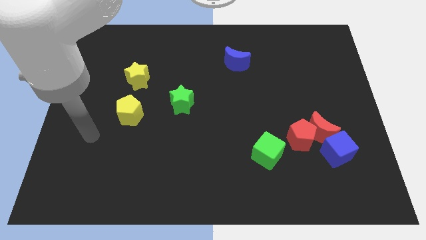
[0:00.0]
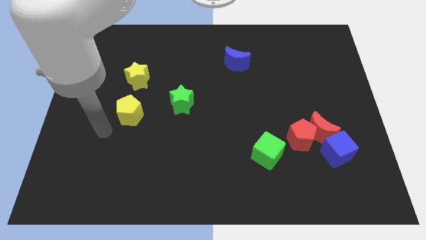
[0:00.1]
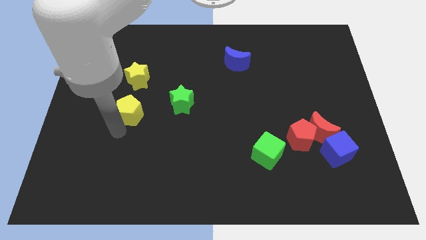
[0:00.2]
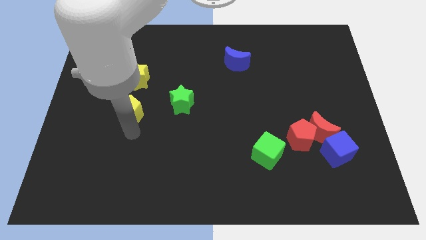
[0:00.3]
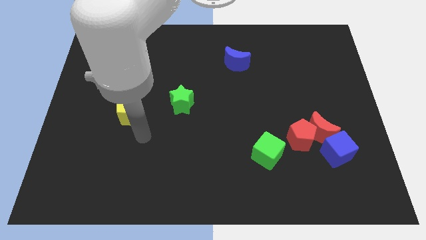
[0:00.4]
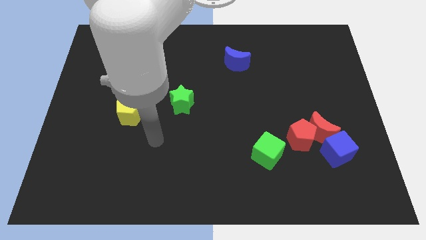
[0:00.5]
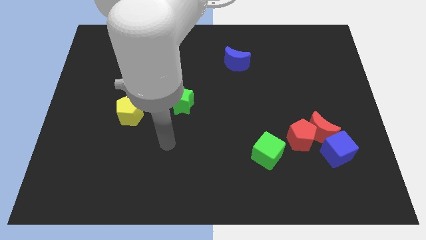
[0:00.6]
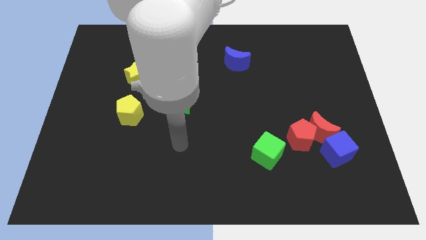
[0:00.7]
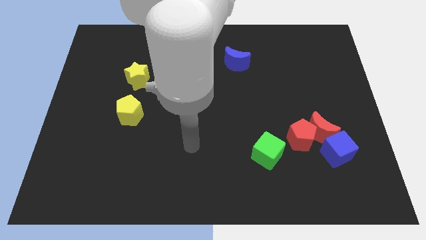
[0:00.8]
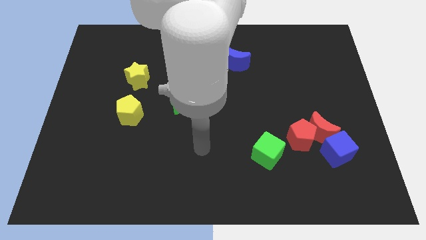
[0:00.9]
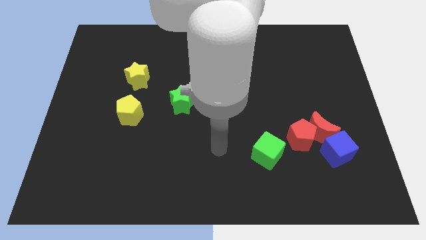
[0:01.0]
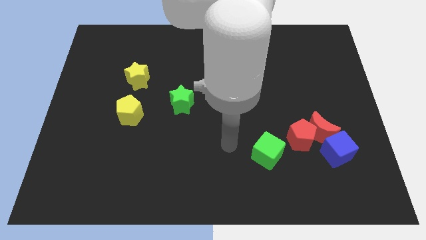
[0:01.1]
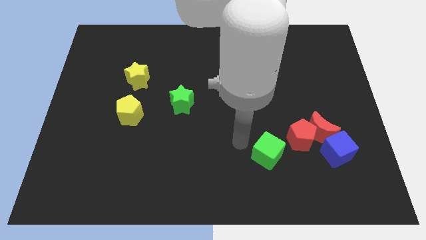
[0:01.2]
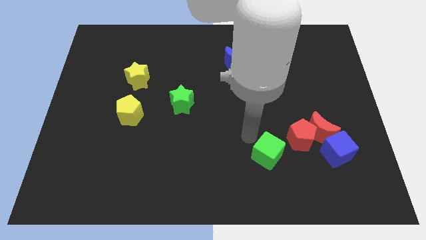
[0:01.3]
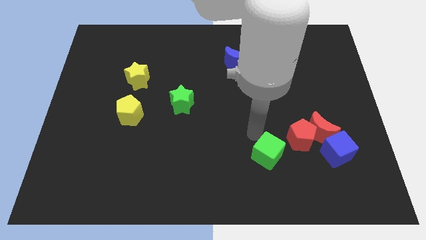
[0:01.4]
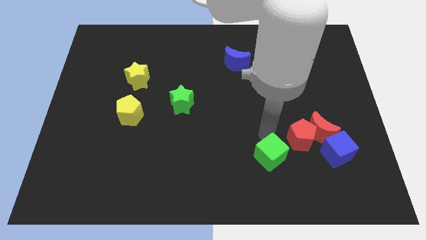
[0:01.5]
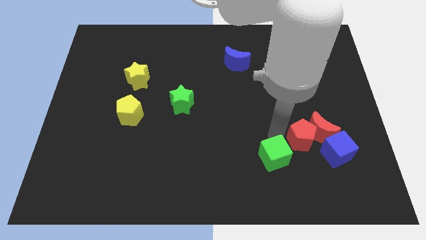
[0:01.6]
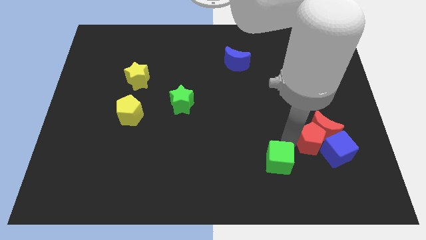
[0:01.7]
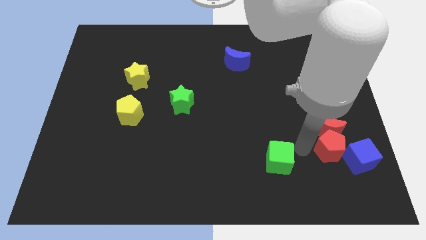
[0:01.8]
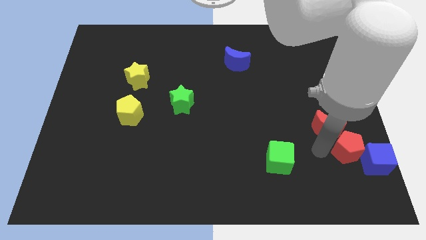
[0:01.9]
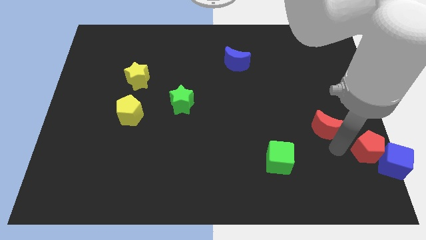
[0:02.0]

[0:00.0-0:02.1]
move the red moon away from the red pentagon and blue cube

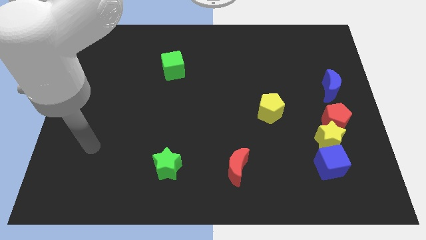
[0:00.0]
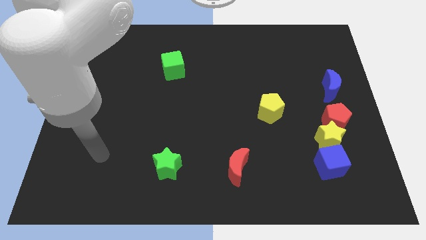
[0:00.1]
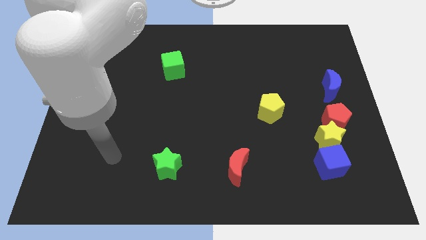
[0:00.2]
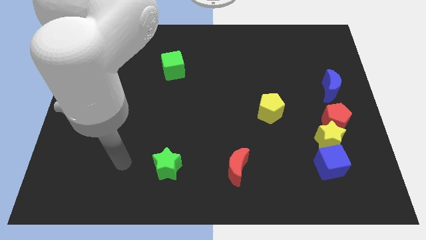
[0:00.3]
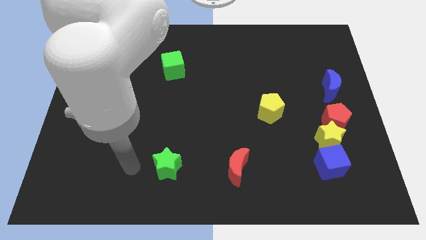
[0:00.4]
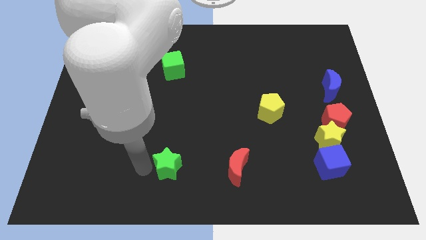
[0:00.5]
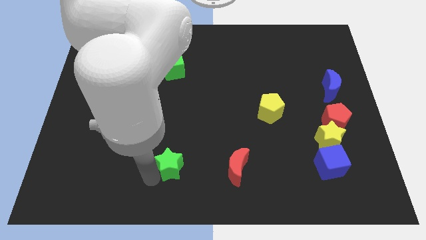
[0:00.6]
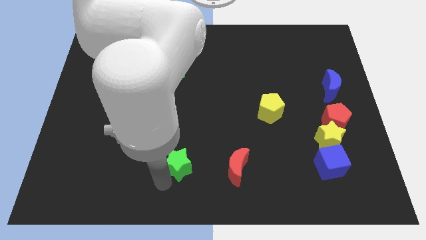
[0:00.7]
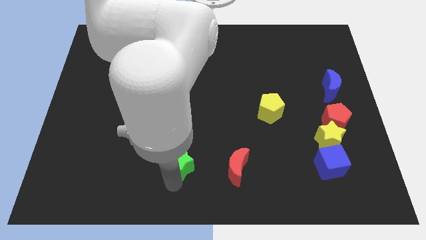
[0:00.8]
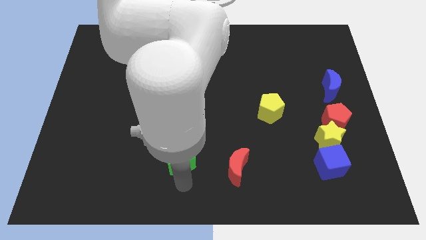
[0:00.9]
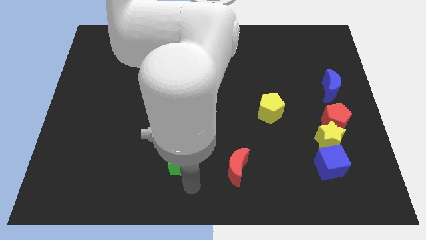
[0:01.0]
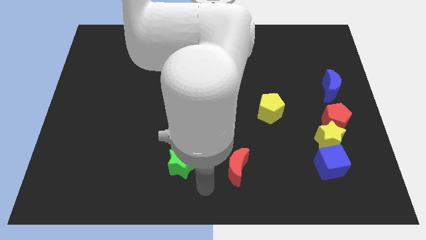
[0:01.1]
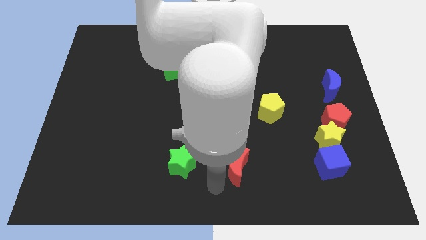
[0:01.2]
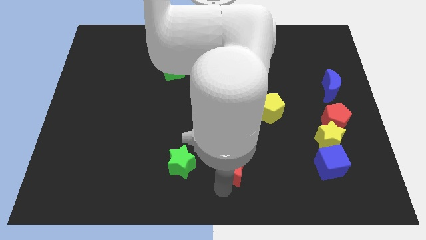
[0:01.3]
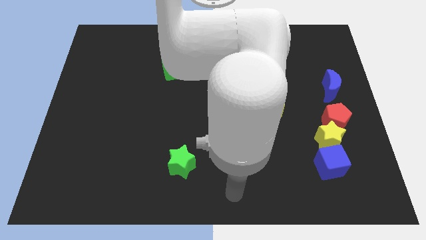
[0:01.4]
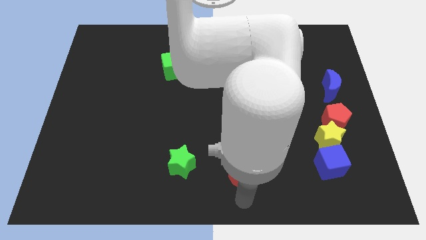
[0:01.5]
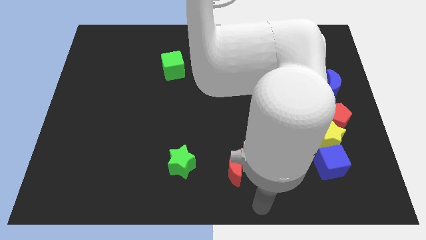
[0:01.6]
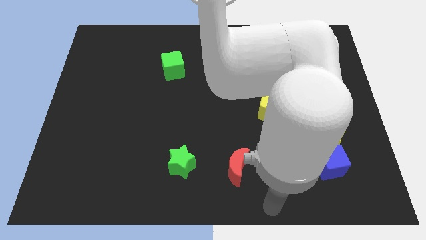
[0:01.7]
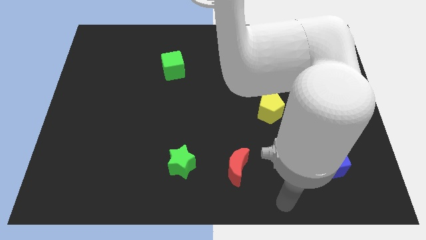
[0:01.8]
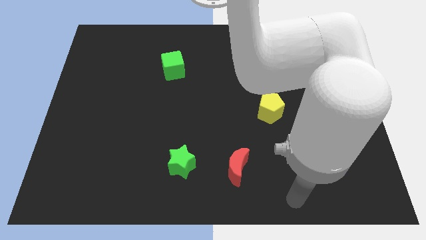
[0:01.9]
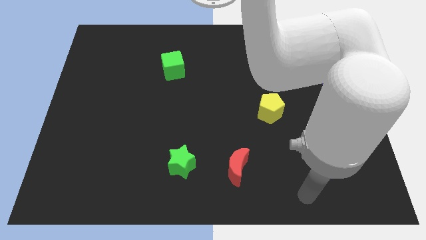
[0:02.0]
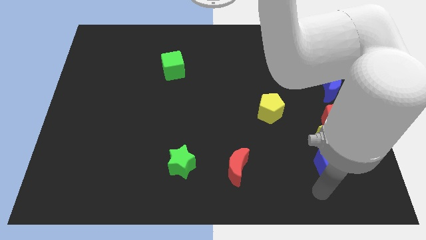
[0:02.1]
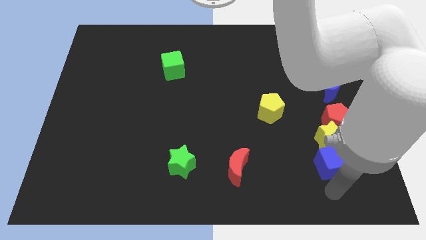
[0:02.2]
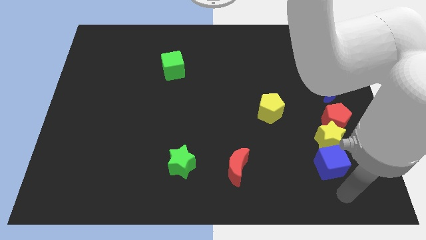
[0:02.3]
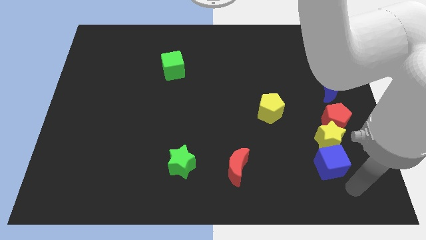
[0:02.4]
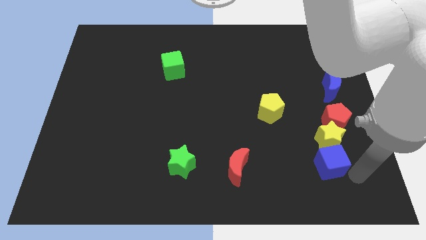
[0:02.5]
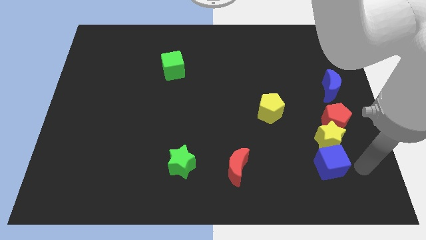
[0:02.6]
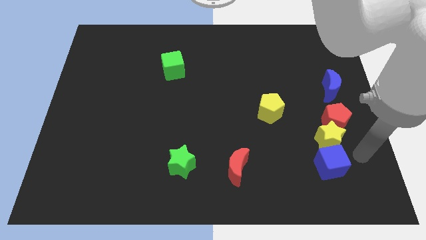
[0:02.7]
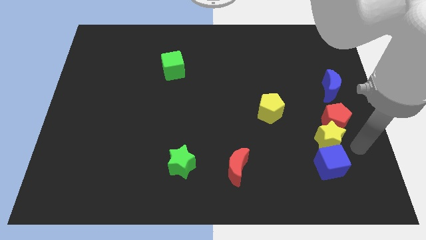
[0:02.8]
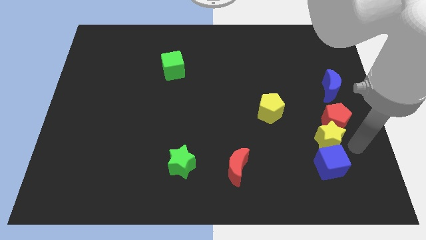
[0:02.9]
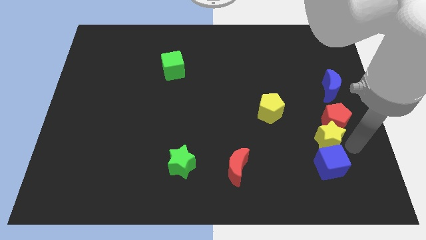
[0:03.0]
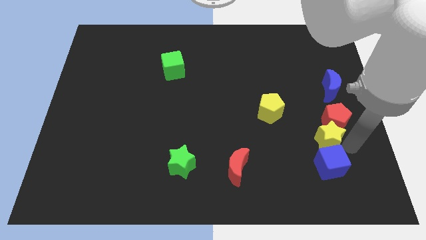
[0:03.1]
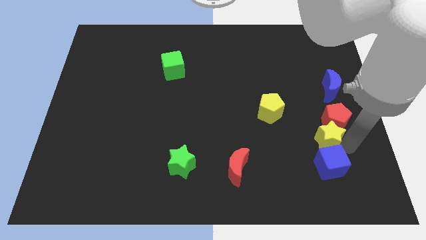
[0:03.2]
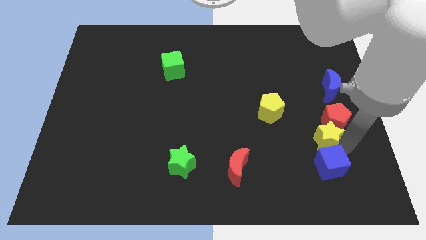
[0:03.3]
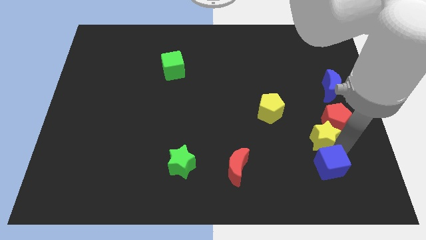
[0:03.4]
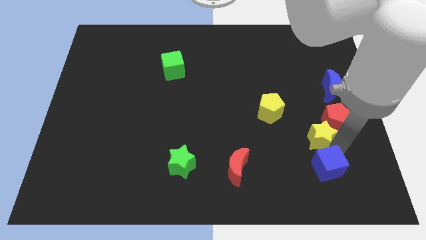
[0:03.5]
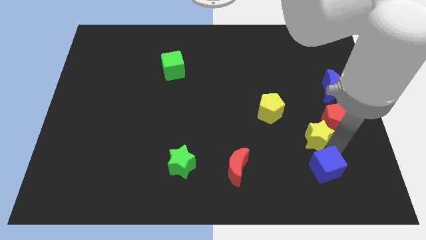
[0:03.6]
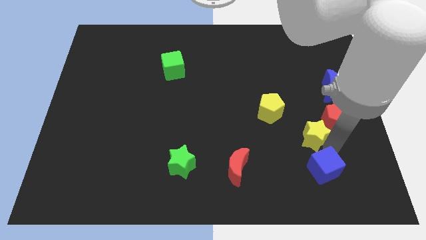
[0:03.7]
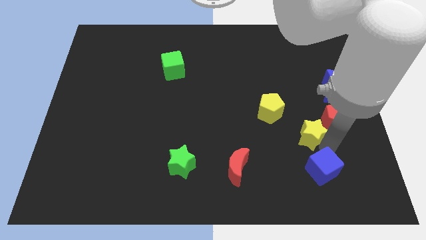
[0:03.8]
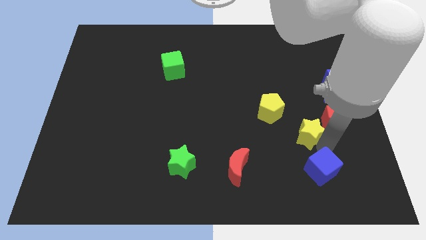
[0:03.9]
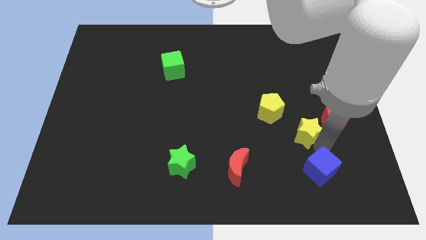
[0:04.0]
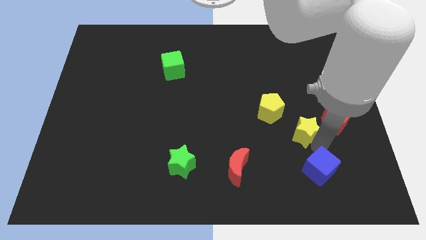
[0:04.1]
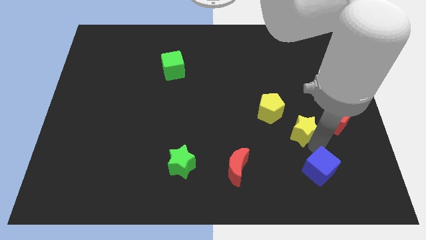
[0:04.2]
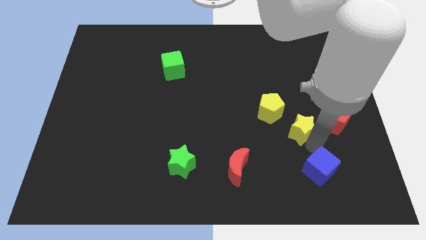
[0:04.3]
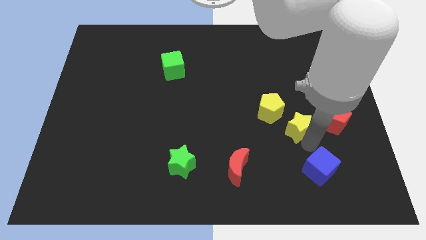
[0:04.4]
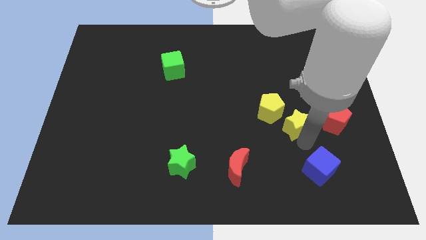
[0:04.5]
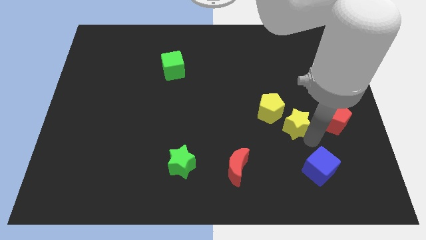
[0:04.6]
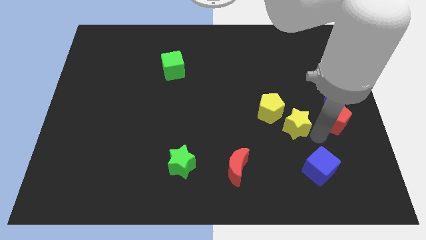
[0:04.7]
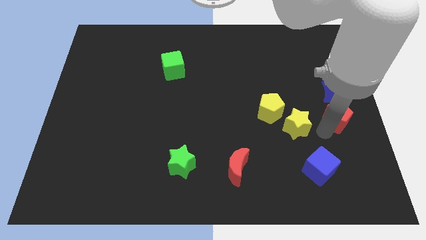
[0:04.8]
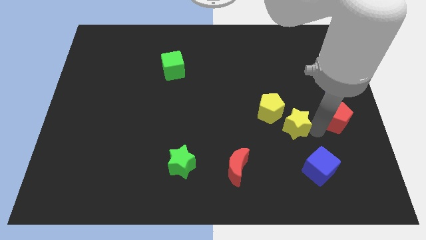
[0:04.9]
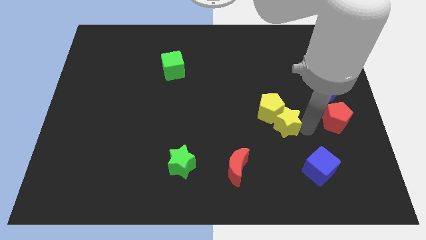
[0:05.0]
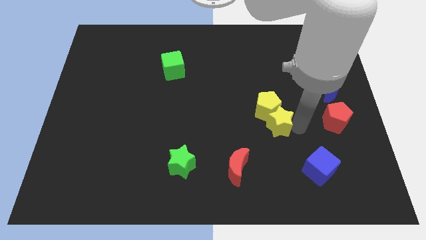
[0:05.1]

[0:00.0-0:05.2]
move the yellow star away from the red pentagon and blue cube

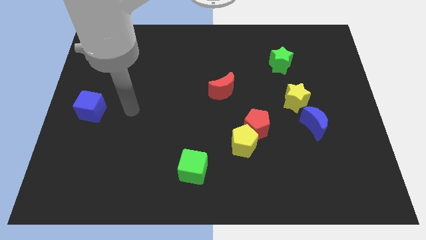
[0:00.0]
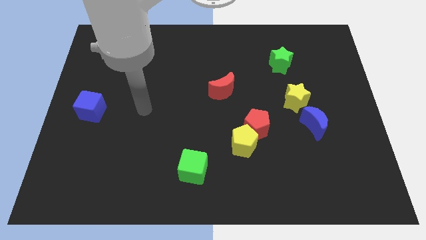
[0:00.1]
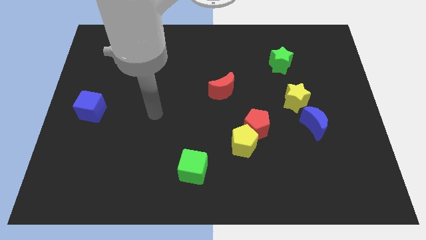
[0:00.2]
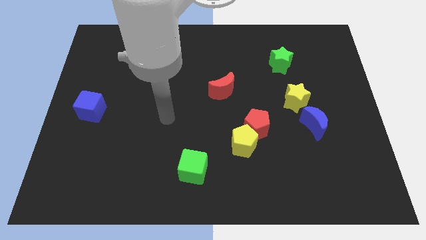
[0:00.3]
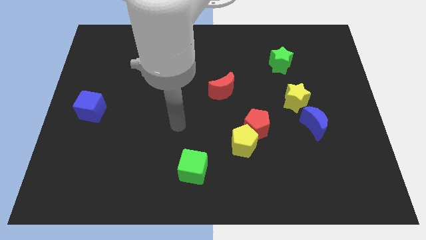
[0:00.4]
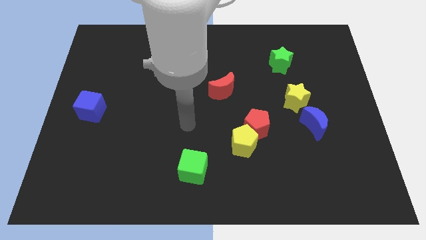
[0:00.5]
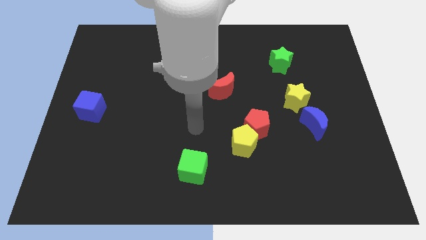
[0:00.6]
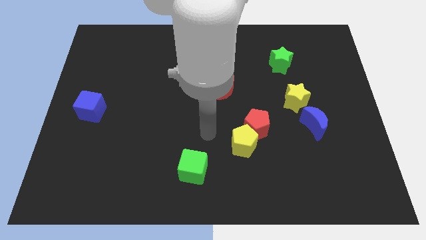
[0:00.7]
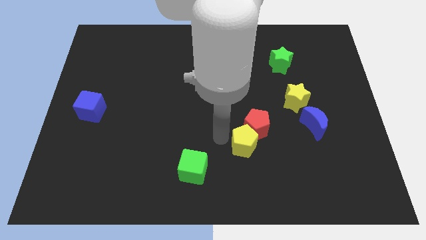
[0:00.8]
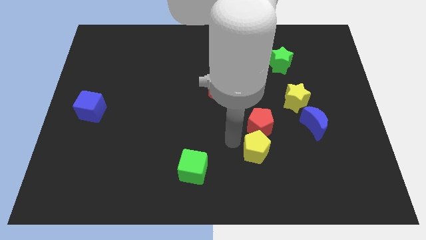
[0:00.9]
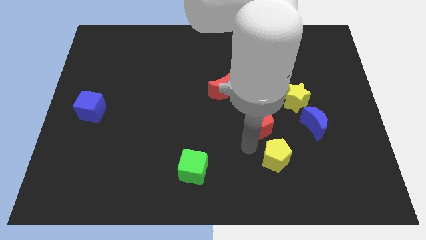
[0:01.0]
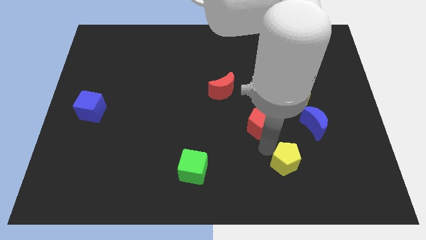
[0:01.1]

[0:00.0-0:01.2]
pull the red pentagon apart from the yellow pentagon

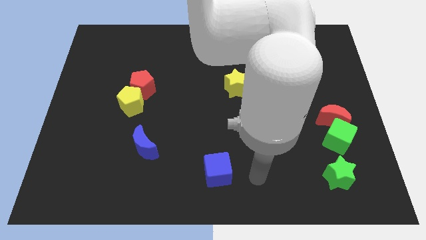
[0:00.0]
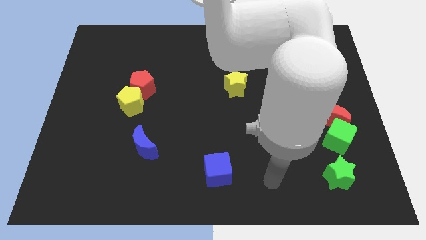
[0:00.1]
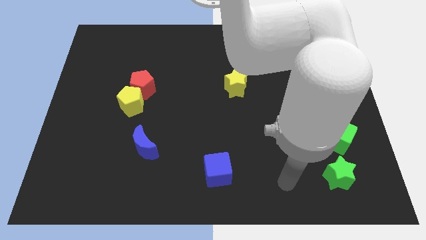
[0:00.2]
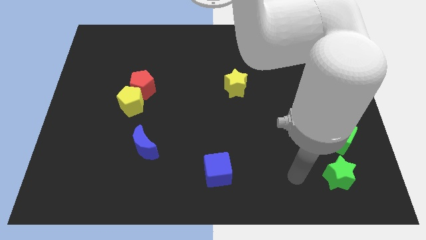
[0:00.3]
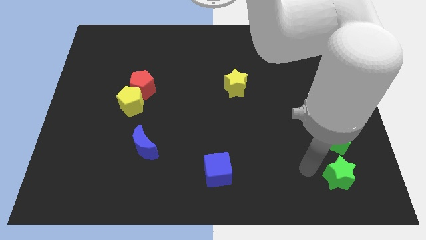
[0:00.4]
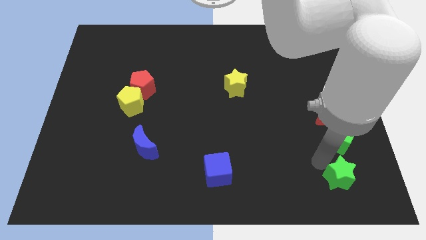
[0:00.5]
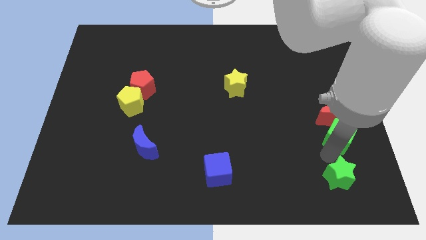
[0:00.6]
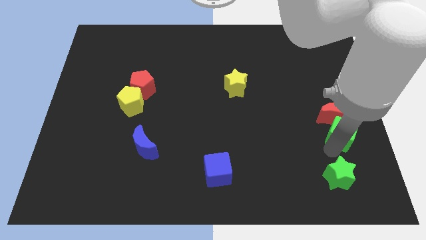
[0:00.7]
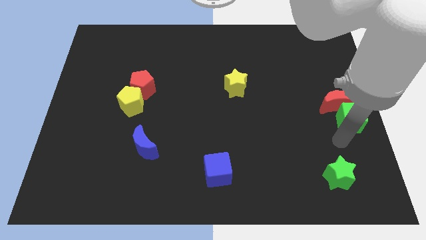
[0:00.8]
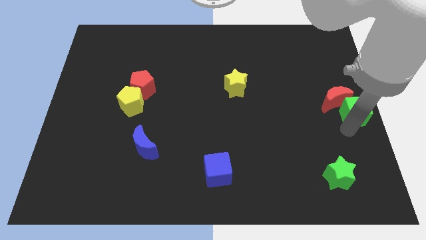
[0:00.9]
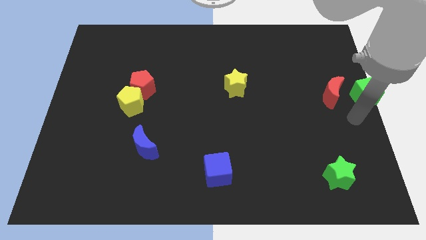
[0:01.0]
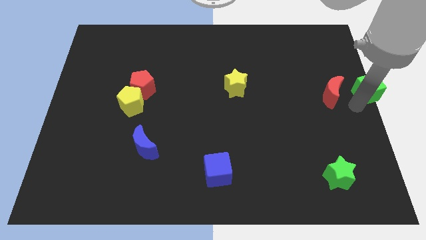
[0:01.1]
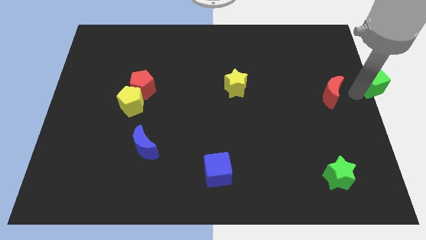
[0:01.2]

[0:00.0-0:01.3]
separate the red moon from the green cube
